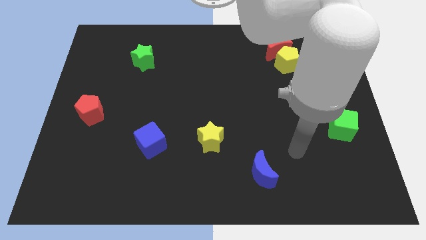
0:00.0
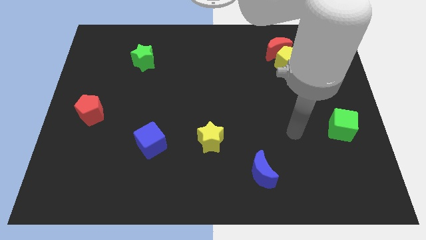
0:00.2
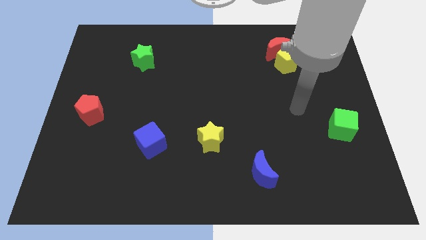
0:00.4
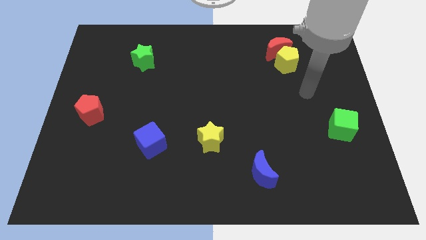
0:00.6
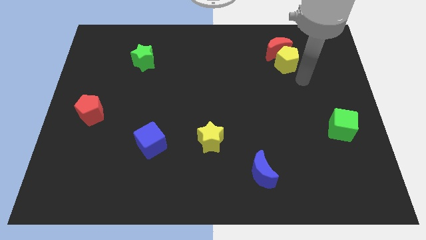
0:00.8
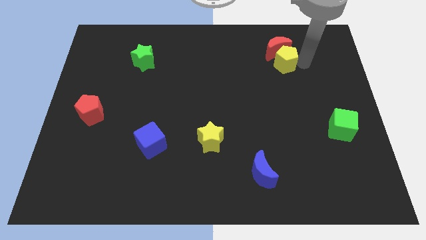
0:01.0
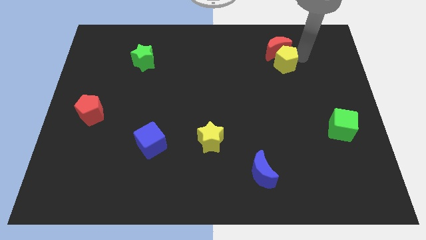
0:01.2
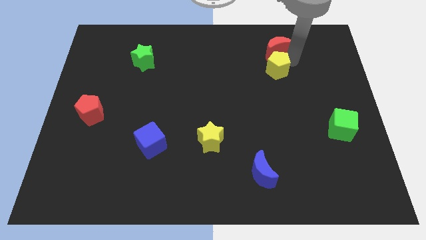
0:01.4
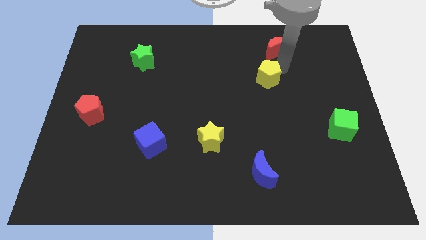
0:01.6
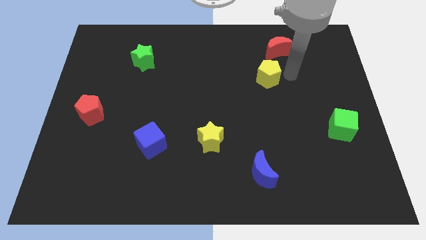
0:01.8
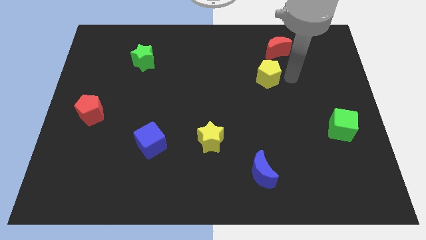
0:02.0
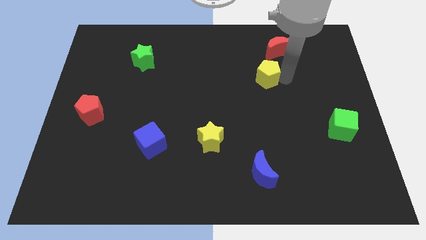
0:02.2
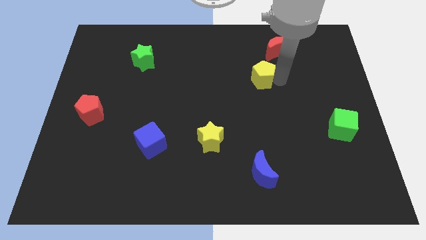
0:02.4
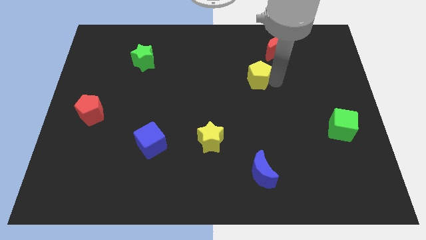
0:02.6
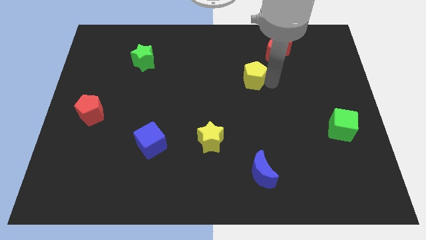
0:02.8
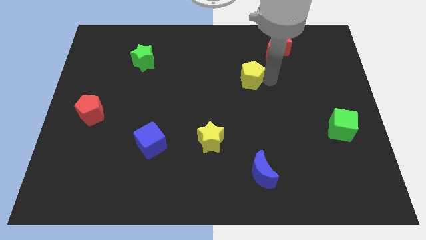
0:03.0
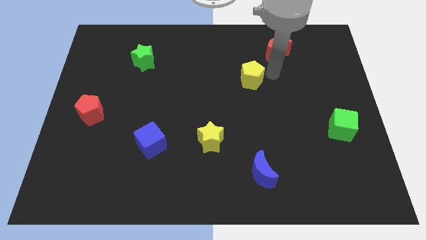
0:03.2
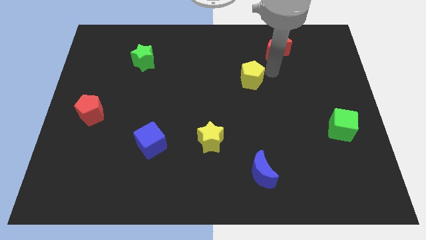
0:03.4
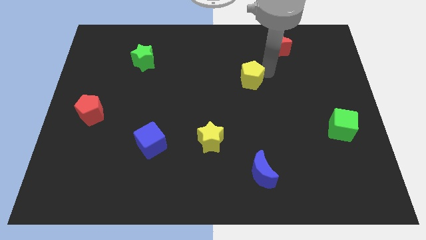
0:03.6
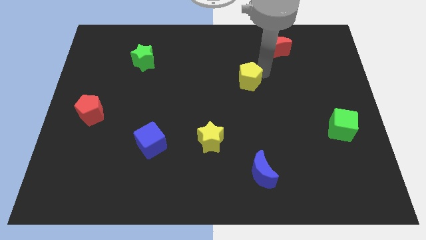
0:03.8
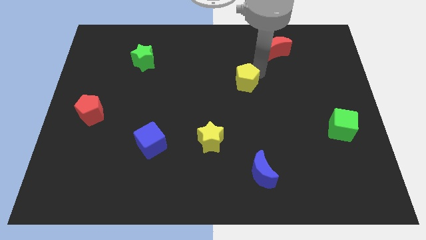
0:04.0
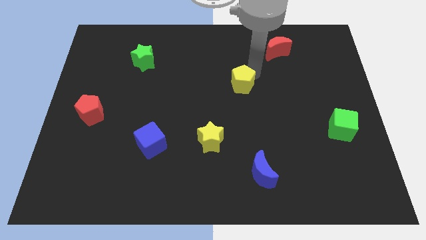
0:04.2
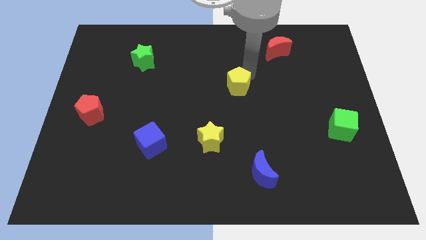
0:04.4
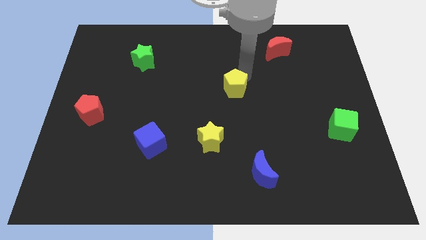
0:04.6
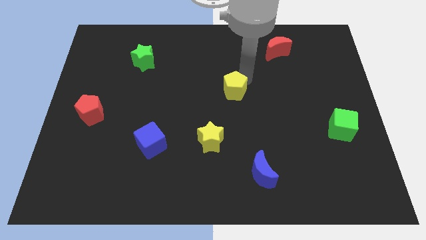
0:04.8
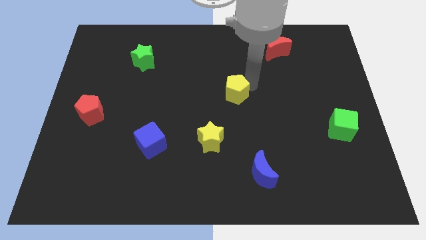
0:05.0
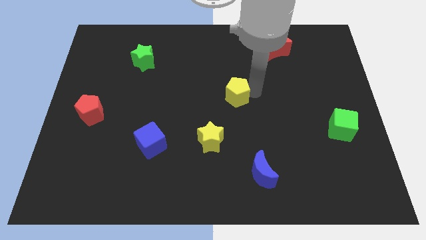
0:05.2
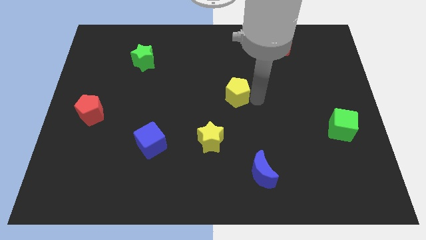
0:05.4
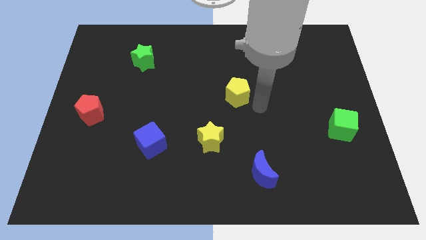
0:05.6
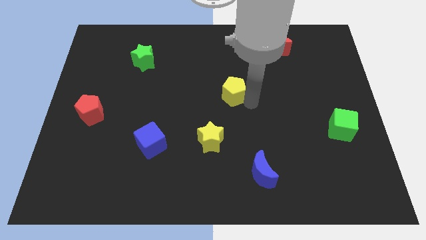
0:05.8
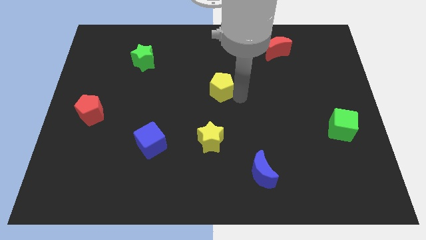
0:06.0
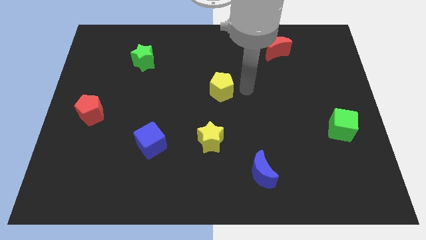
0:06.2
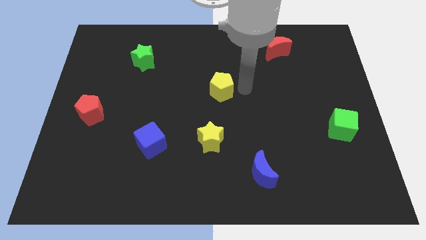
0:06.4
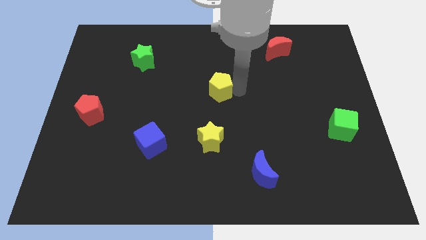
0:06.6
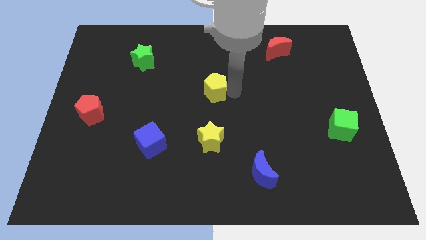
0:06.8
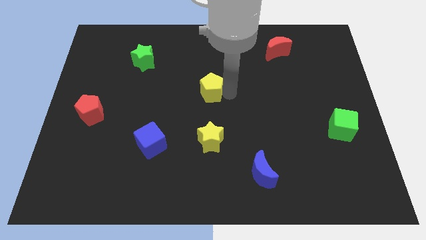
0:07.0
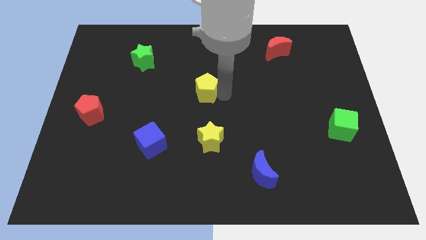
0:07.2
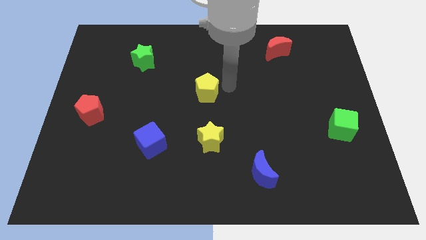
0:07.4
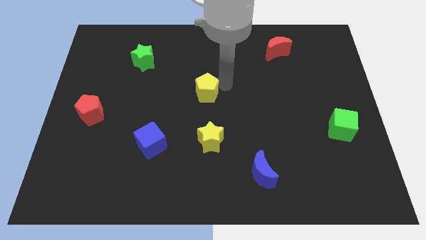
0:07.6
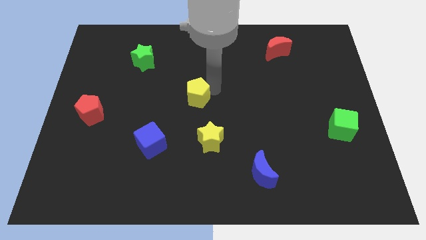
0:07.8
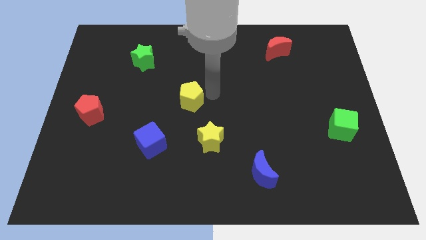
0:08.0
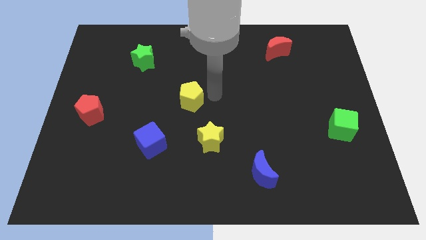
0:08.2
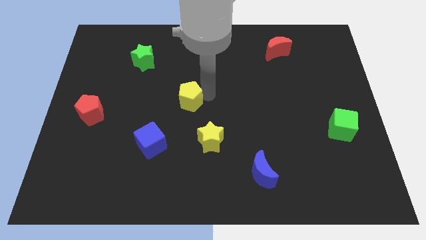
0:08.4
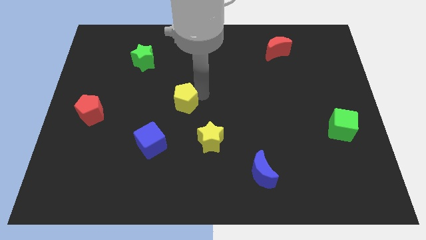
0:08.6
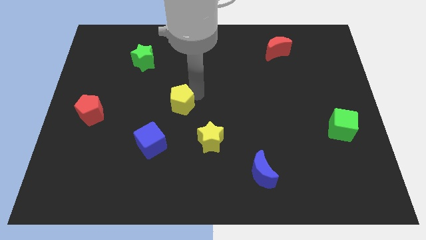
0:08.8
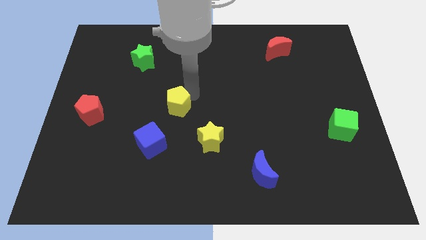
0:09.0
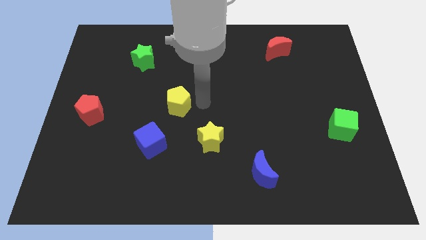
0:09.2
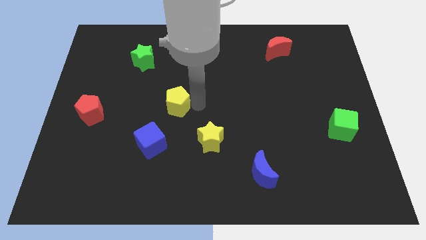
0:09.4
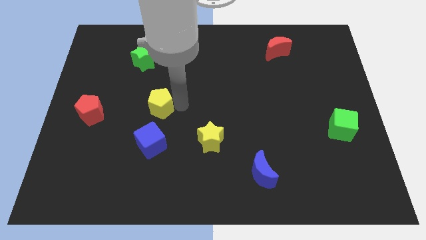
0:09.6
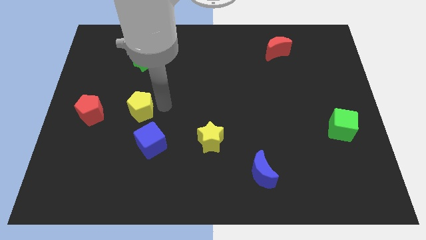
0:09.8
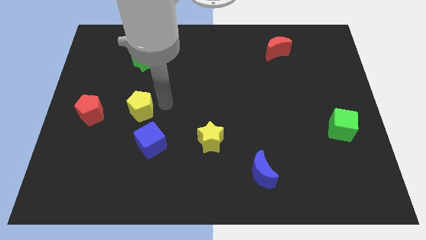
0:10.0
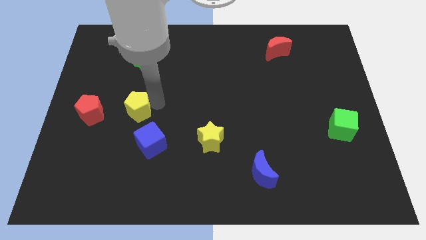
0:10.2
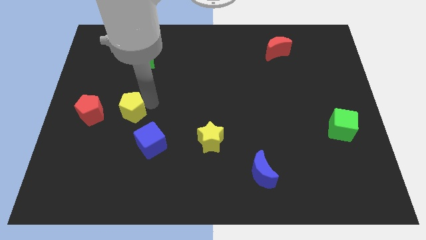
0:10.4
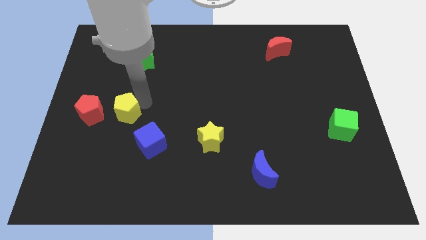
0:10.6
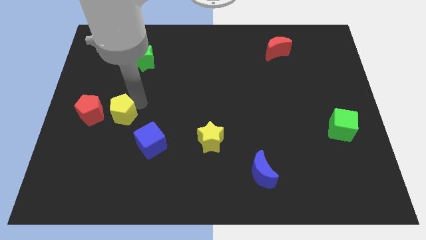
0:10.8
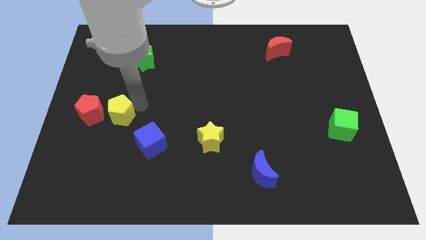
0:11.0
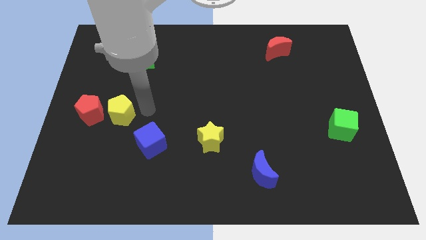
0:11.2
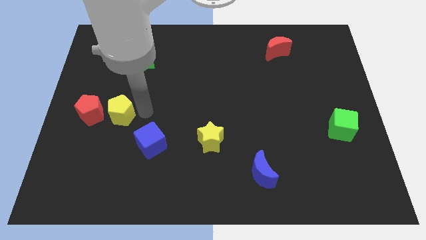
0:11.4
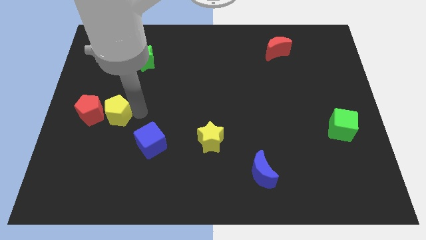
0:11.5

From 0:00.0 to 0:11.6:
slide the yellow pentagon towards the red pentagon

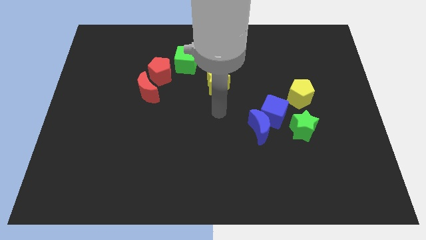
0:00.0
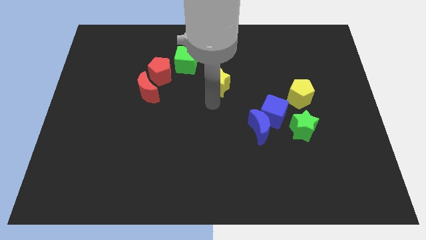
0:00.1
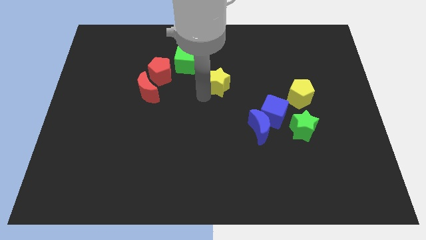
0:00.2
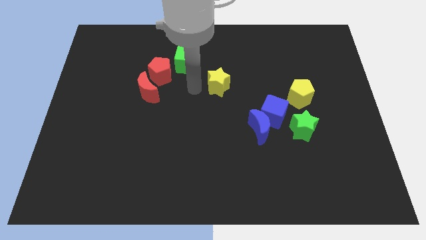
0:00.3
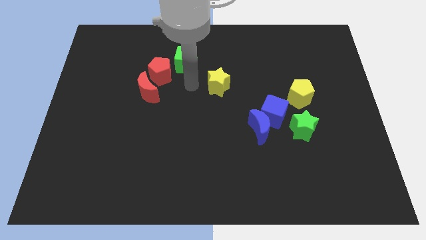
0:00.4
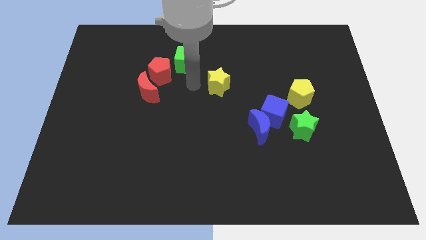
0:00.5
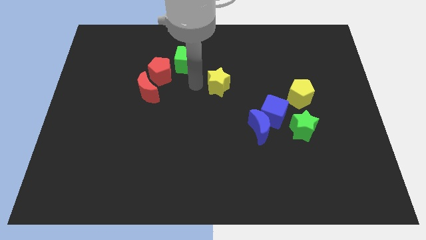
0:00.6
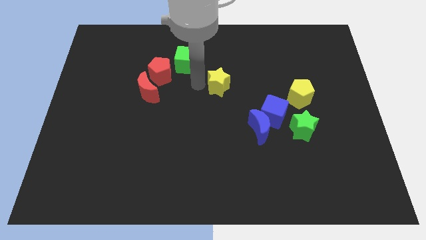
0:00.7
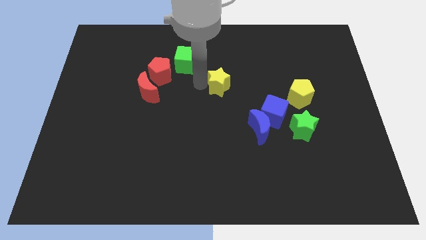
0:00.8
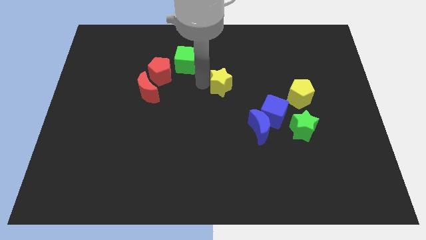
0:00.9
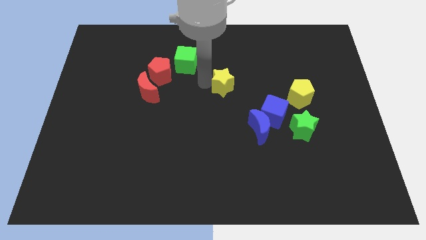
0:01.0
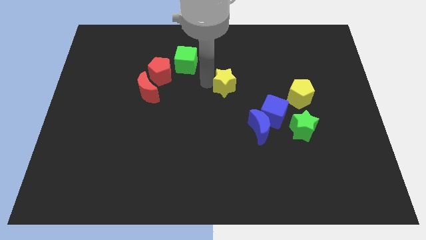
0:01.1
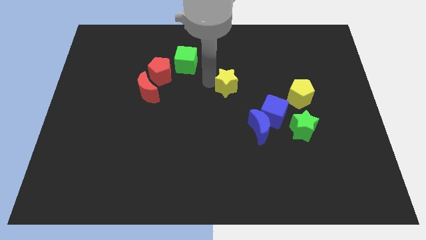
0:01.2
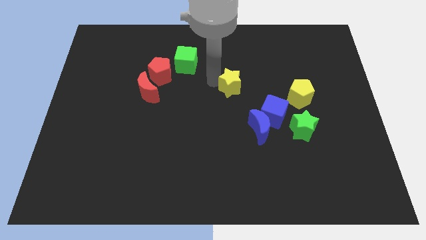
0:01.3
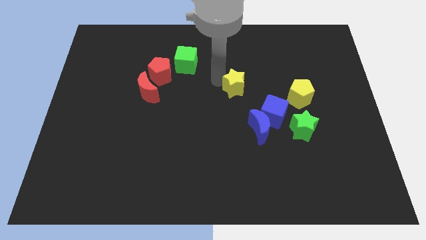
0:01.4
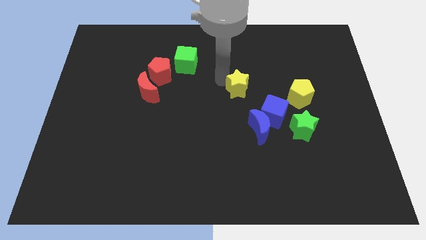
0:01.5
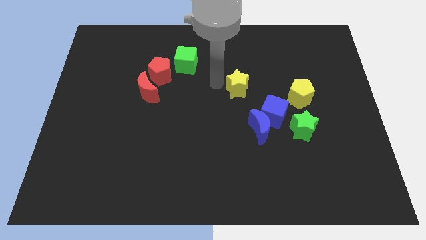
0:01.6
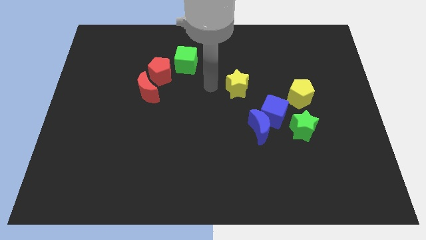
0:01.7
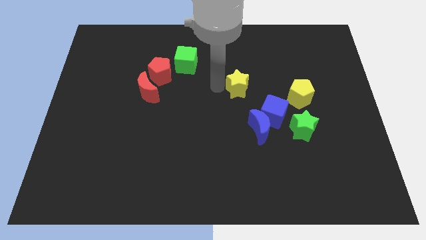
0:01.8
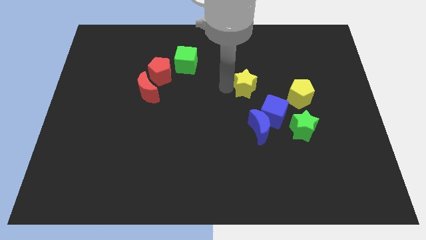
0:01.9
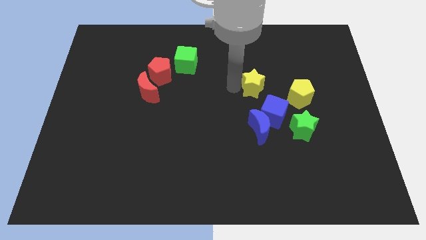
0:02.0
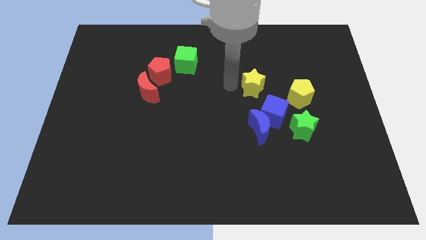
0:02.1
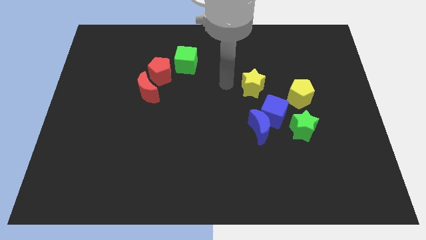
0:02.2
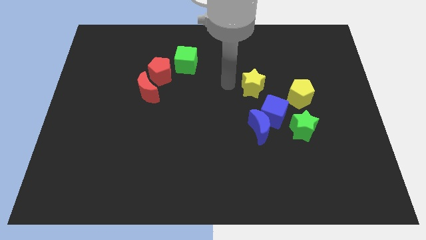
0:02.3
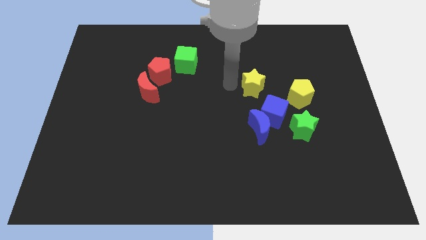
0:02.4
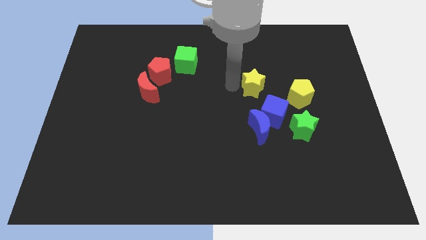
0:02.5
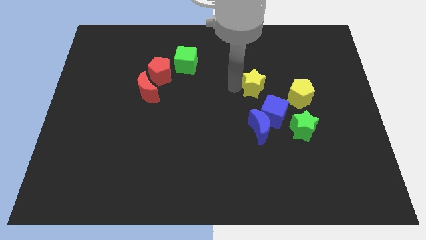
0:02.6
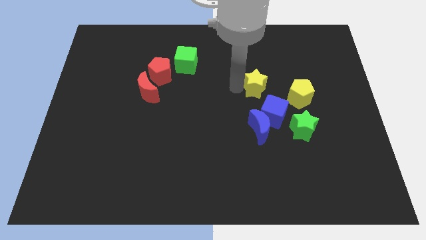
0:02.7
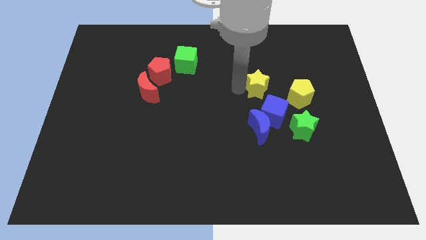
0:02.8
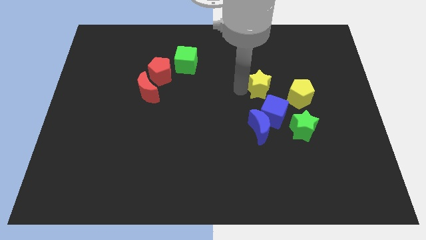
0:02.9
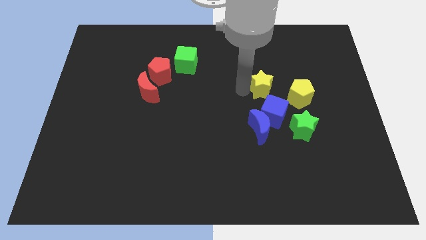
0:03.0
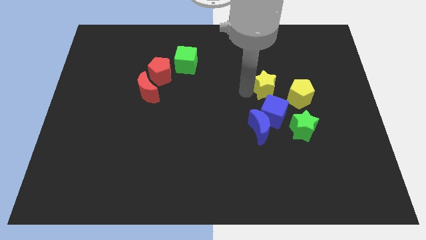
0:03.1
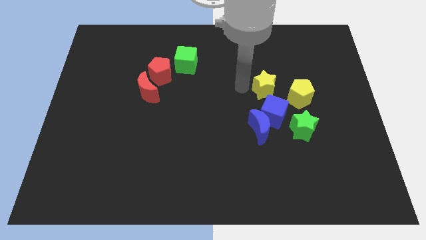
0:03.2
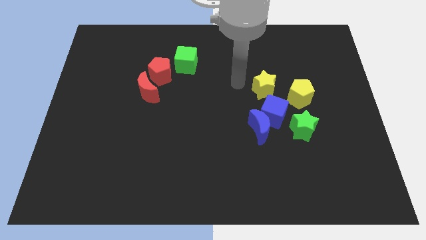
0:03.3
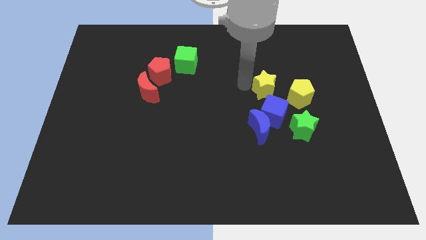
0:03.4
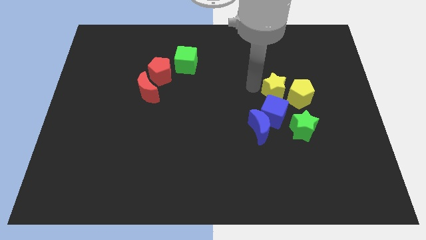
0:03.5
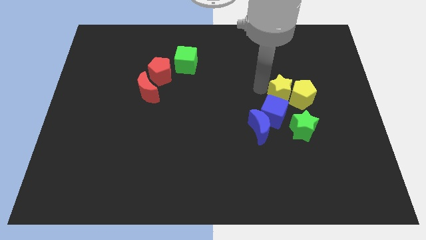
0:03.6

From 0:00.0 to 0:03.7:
push the yellow star towards the yellow pentagon
